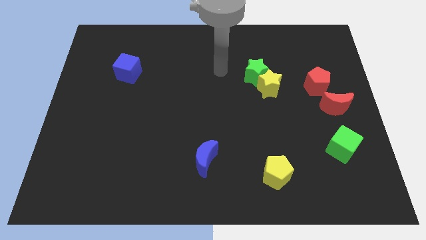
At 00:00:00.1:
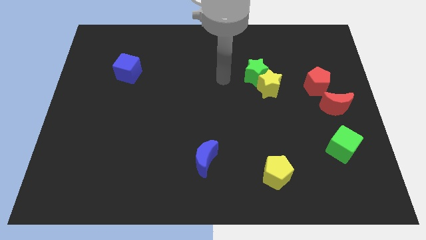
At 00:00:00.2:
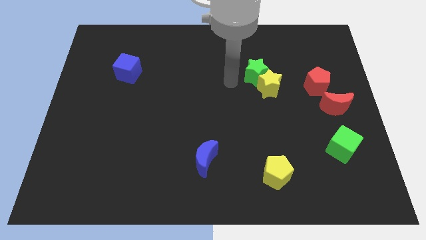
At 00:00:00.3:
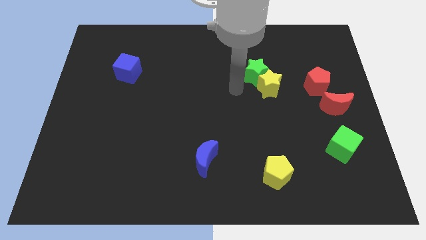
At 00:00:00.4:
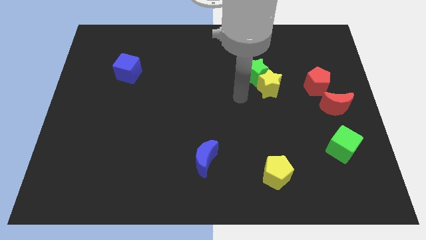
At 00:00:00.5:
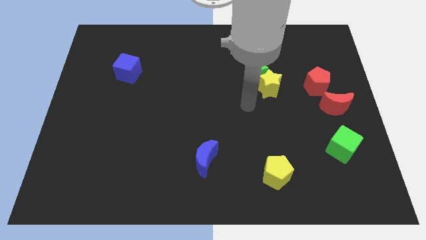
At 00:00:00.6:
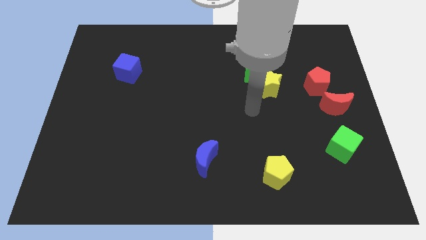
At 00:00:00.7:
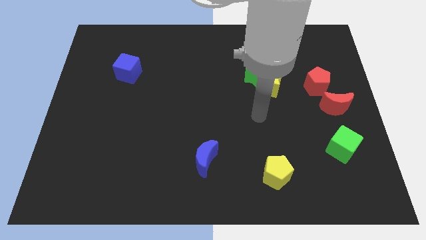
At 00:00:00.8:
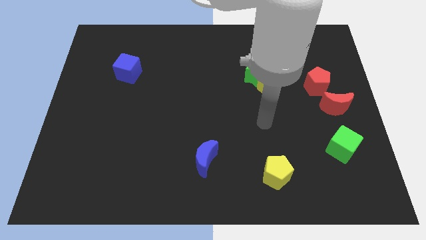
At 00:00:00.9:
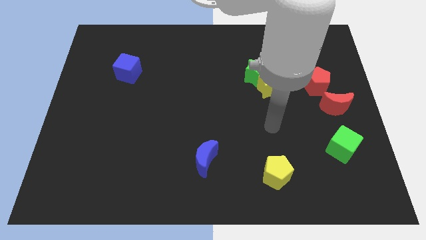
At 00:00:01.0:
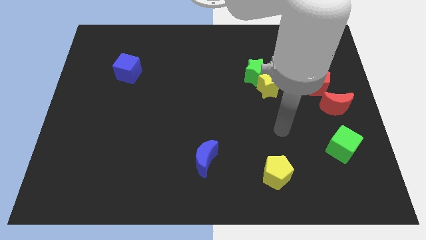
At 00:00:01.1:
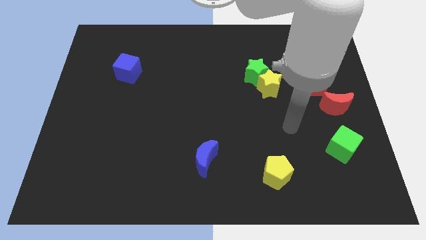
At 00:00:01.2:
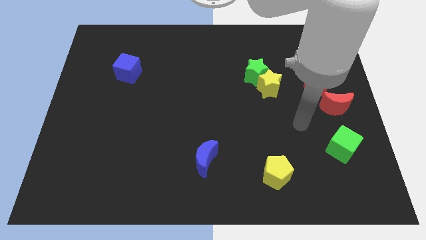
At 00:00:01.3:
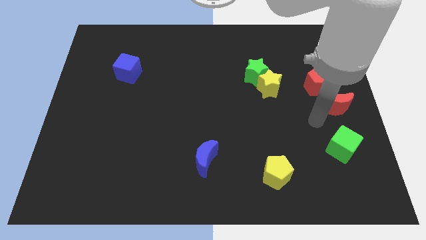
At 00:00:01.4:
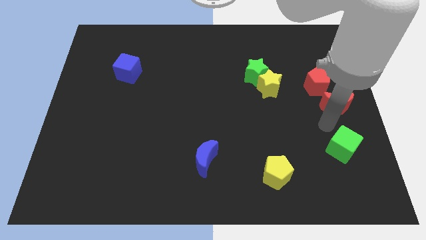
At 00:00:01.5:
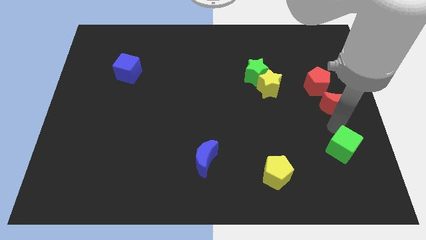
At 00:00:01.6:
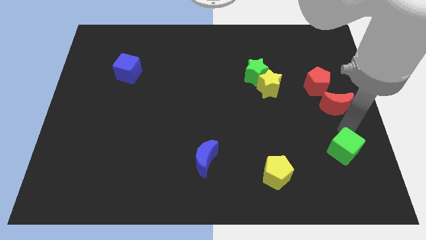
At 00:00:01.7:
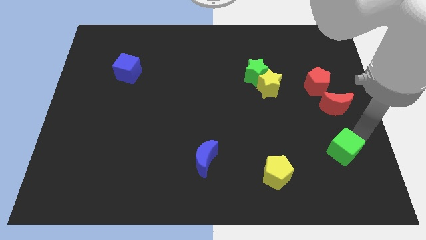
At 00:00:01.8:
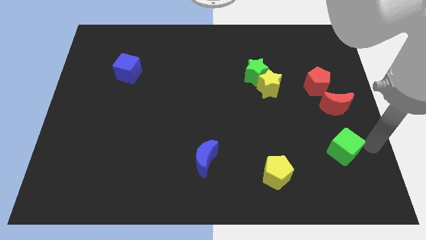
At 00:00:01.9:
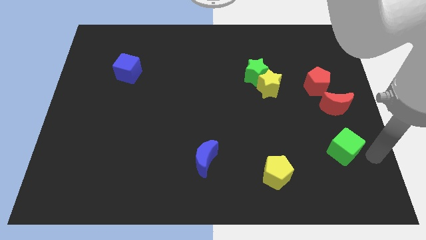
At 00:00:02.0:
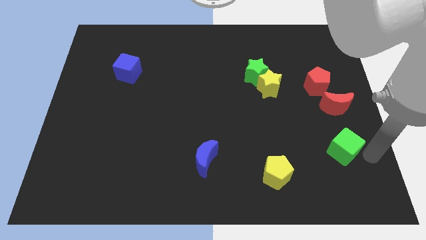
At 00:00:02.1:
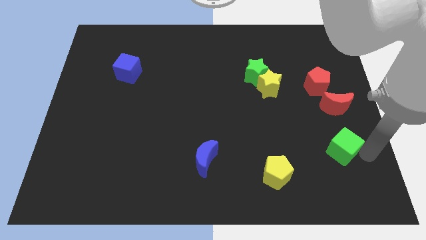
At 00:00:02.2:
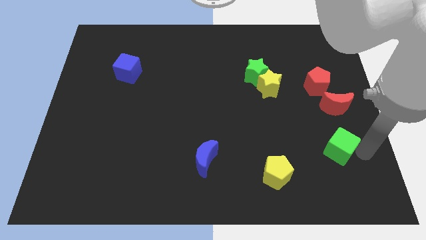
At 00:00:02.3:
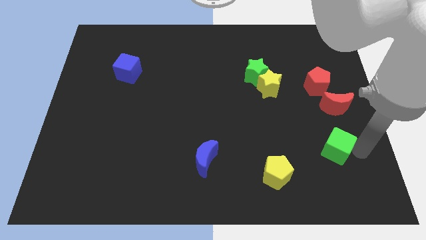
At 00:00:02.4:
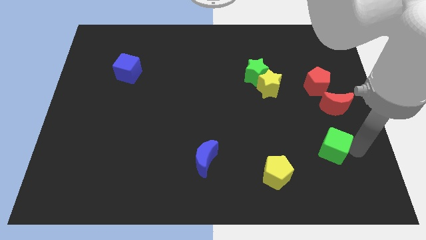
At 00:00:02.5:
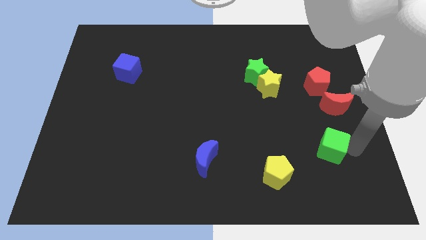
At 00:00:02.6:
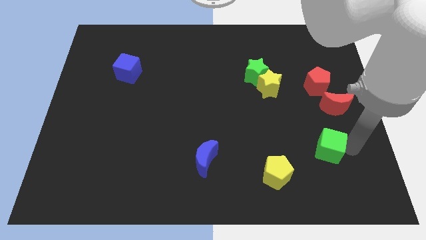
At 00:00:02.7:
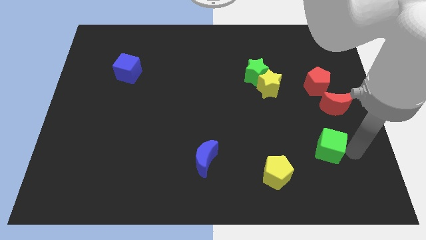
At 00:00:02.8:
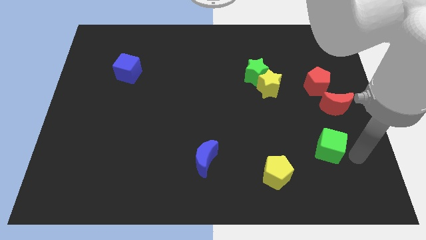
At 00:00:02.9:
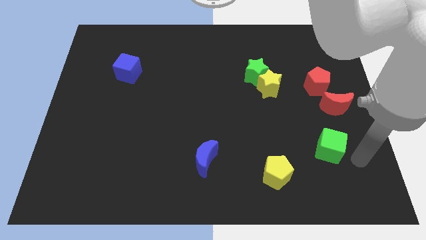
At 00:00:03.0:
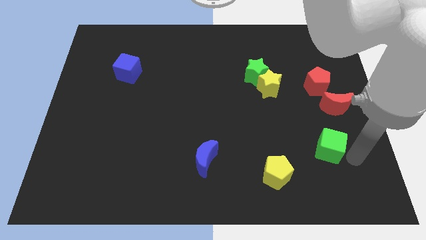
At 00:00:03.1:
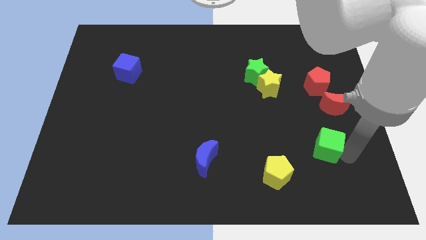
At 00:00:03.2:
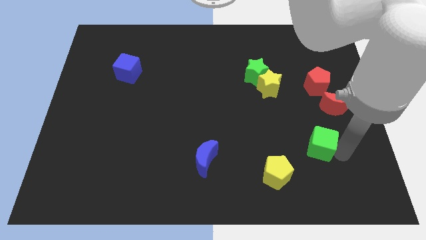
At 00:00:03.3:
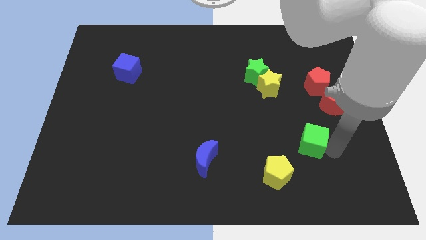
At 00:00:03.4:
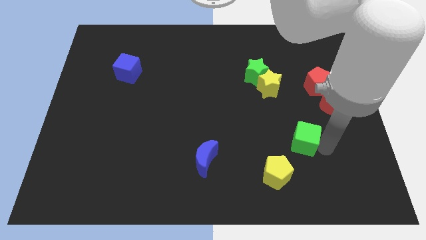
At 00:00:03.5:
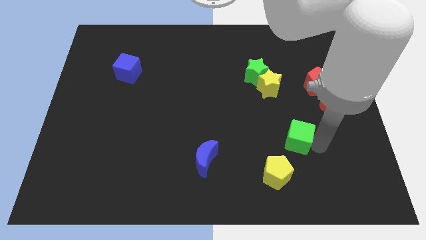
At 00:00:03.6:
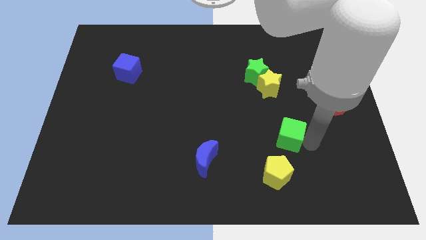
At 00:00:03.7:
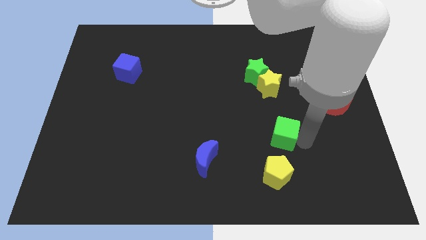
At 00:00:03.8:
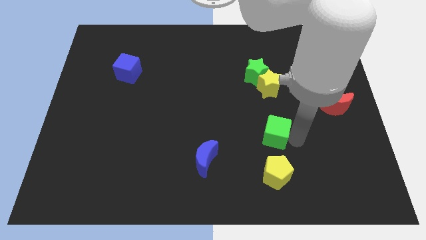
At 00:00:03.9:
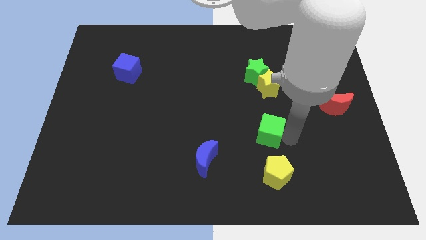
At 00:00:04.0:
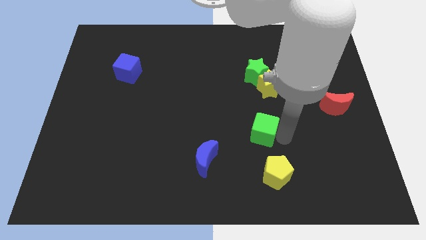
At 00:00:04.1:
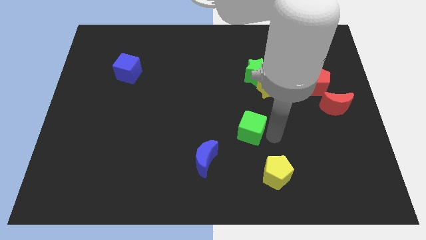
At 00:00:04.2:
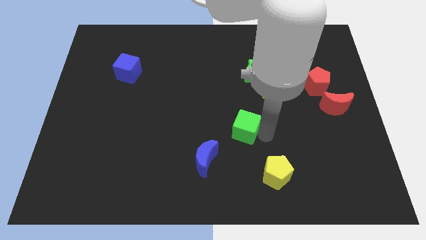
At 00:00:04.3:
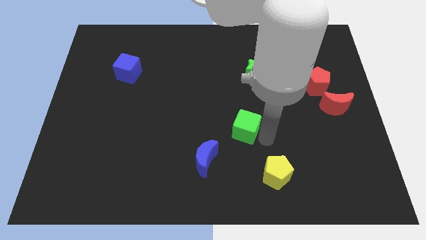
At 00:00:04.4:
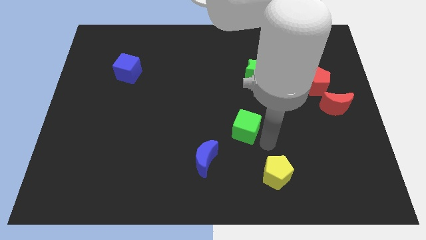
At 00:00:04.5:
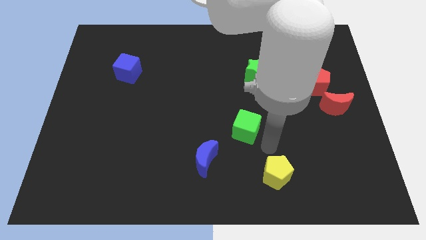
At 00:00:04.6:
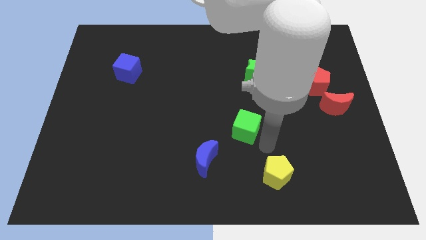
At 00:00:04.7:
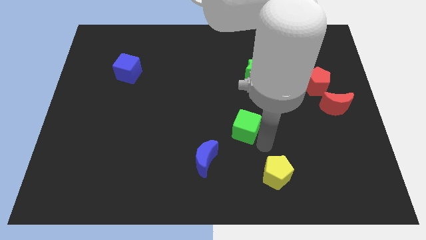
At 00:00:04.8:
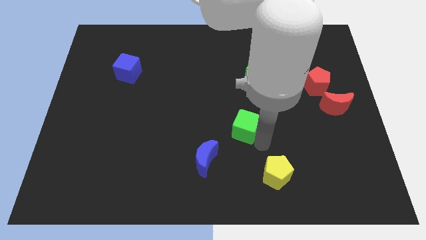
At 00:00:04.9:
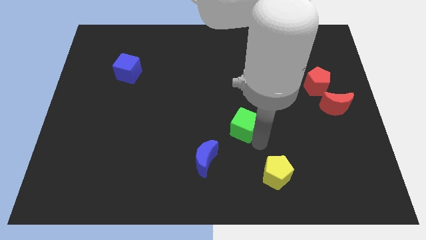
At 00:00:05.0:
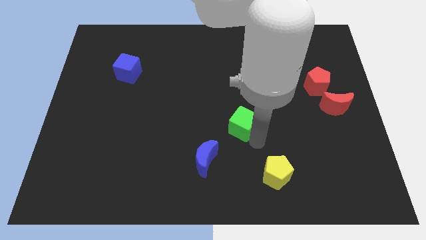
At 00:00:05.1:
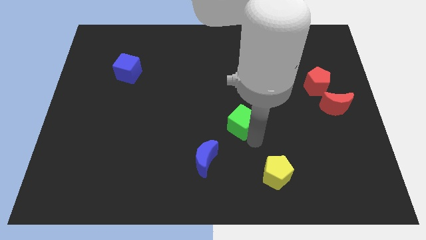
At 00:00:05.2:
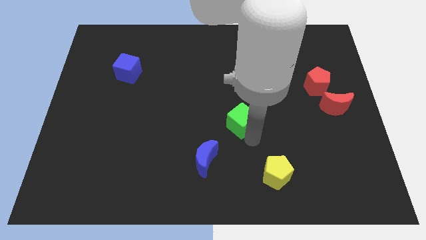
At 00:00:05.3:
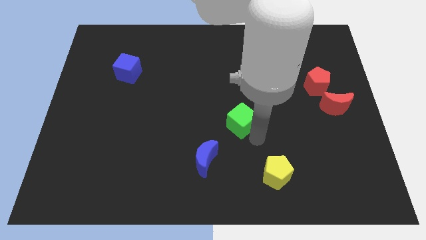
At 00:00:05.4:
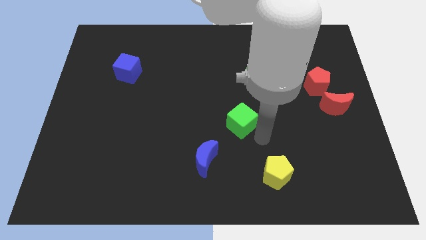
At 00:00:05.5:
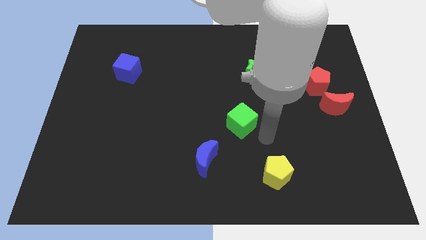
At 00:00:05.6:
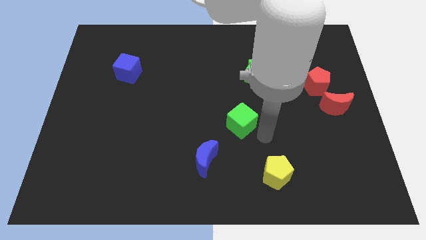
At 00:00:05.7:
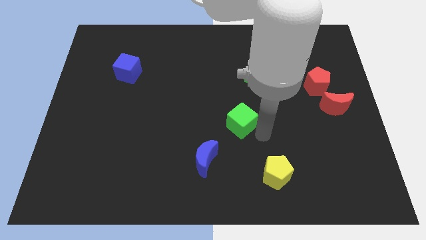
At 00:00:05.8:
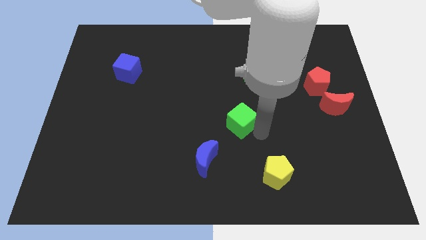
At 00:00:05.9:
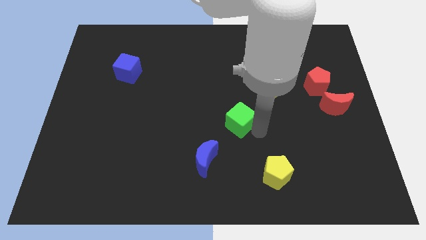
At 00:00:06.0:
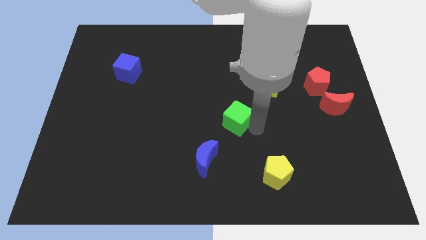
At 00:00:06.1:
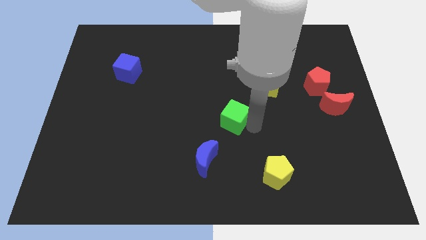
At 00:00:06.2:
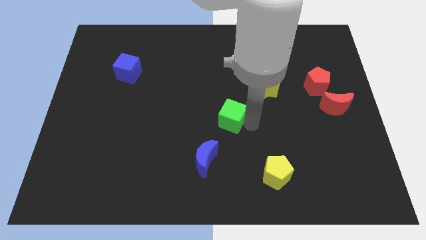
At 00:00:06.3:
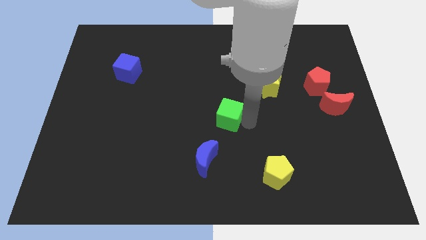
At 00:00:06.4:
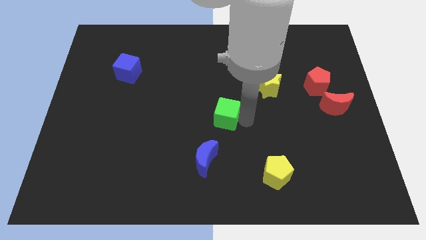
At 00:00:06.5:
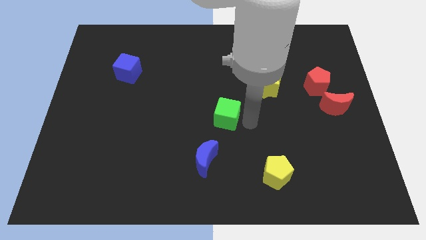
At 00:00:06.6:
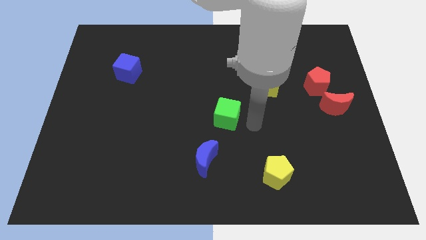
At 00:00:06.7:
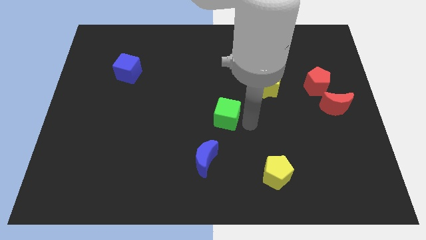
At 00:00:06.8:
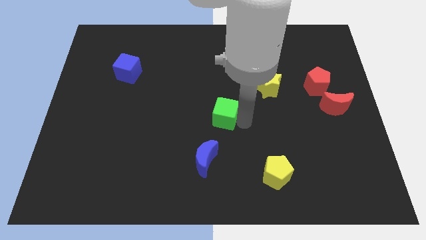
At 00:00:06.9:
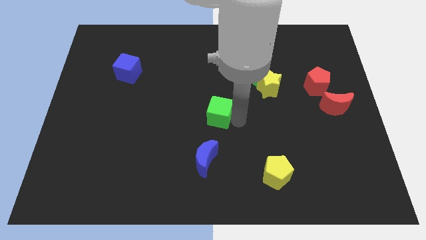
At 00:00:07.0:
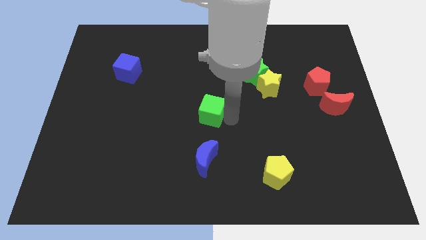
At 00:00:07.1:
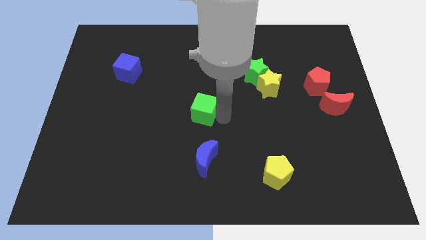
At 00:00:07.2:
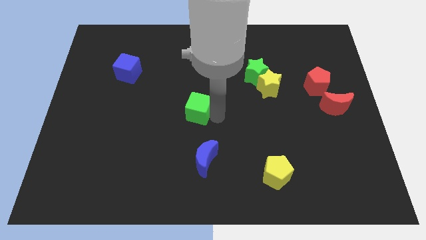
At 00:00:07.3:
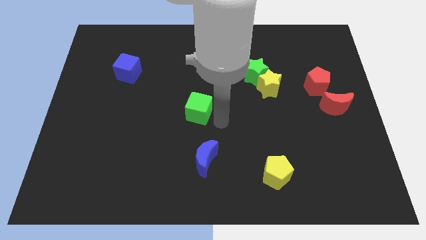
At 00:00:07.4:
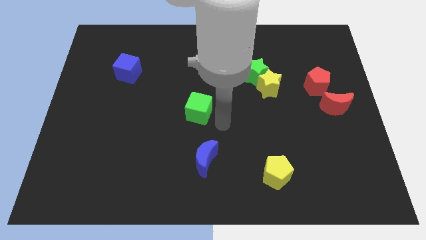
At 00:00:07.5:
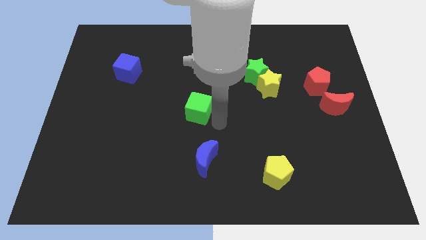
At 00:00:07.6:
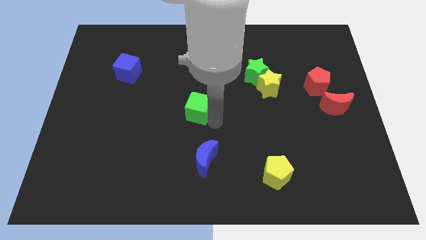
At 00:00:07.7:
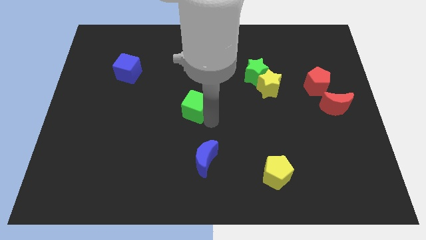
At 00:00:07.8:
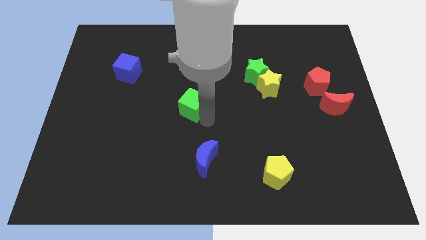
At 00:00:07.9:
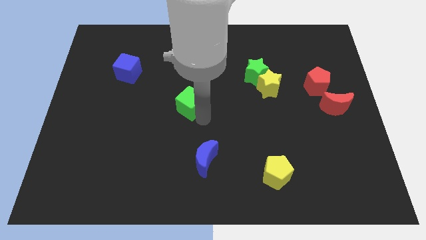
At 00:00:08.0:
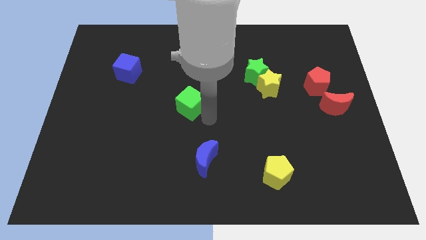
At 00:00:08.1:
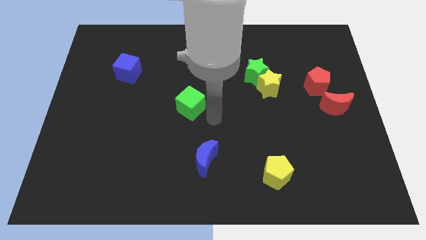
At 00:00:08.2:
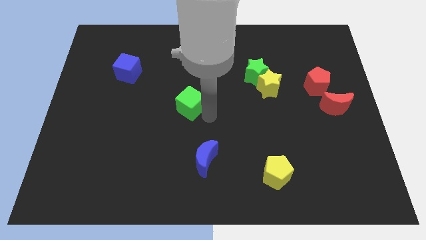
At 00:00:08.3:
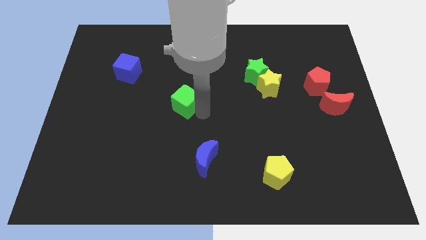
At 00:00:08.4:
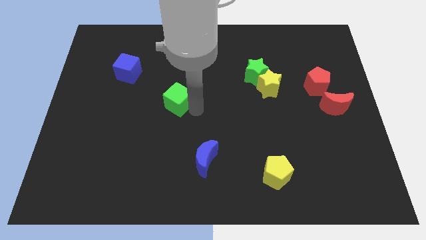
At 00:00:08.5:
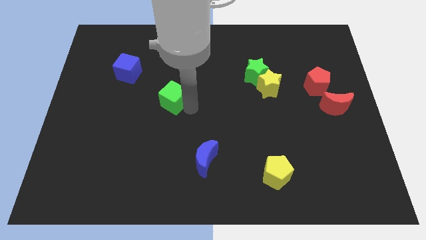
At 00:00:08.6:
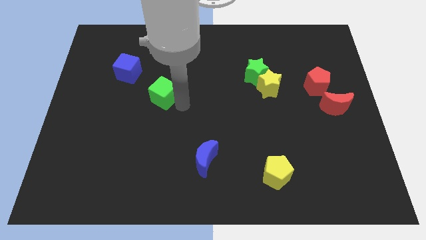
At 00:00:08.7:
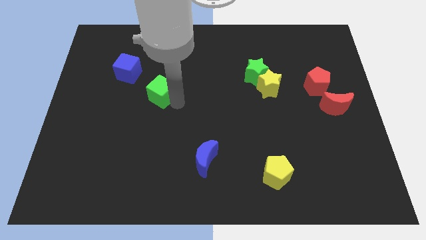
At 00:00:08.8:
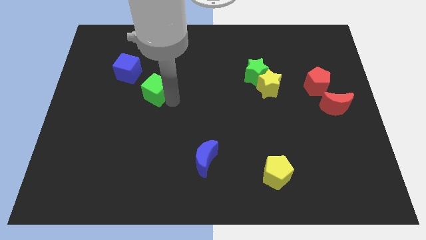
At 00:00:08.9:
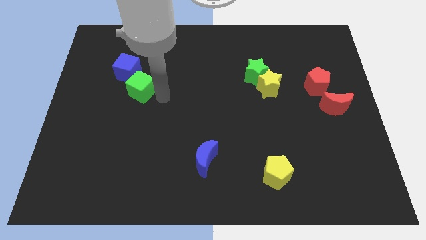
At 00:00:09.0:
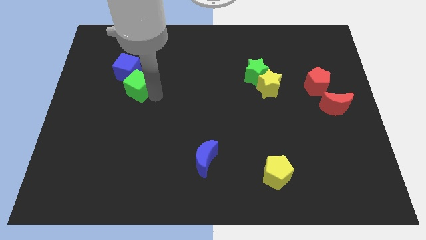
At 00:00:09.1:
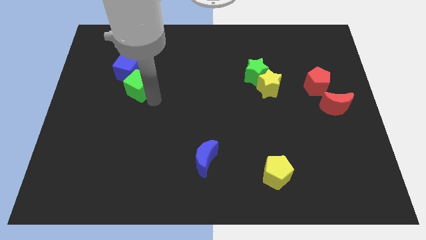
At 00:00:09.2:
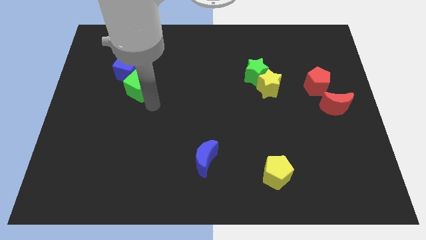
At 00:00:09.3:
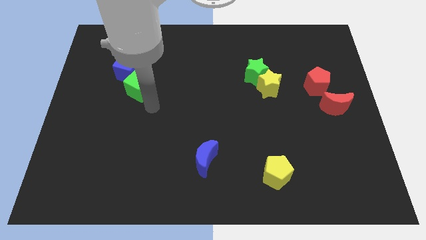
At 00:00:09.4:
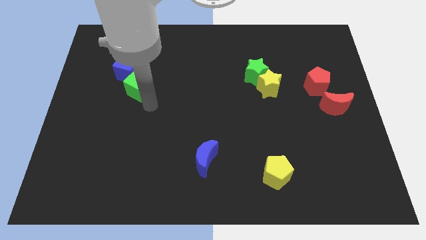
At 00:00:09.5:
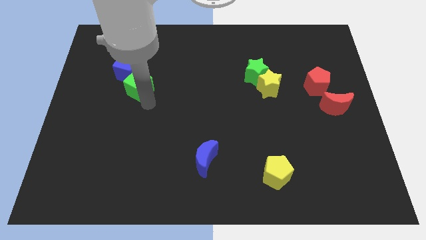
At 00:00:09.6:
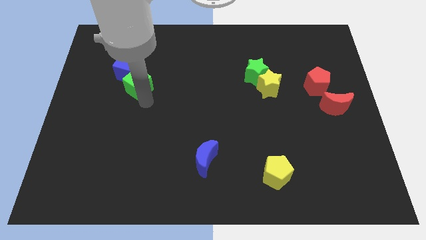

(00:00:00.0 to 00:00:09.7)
move the green cube towards the blue cube
